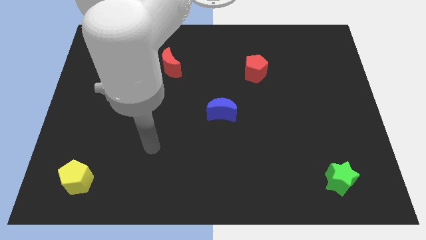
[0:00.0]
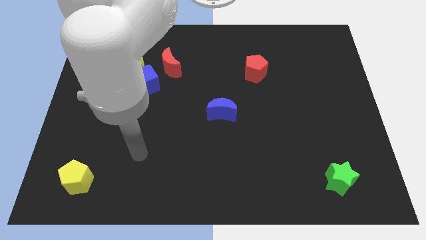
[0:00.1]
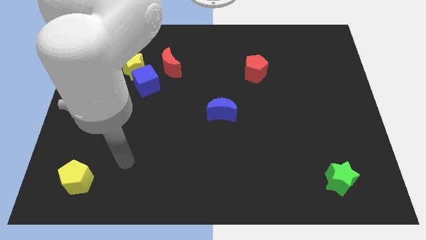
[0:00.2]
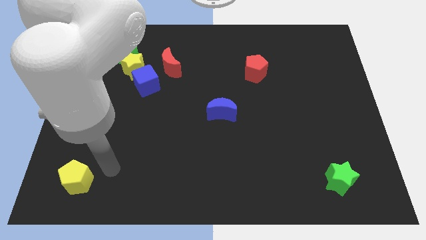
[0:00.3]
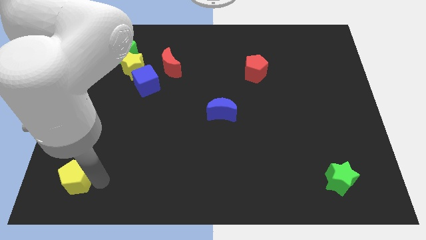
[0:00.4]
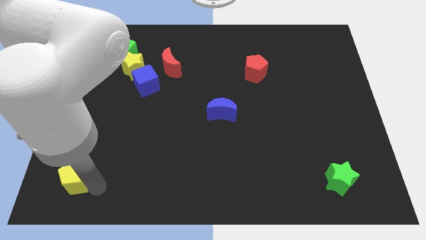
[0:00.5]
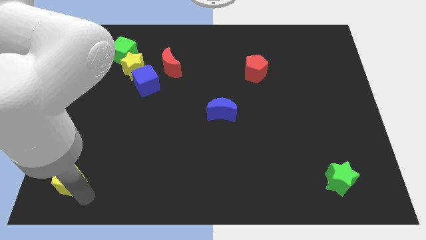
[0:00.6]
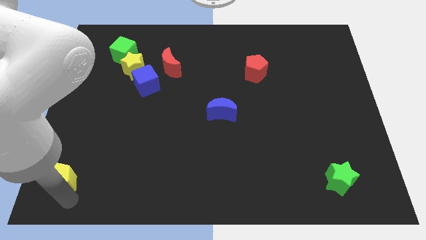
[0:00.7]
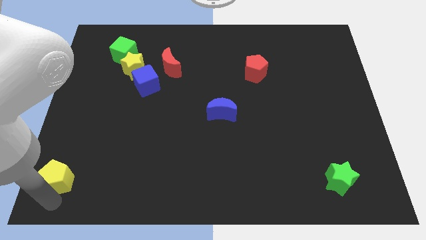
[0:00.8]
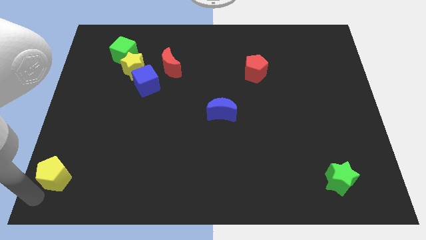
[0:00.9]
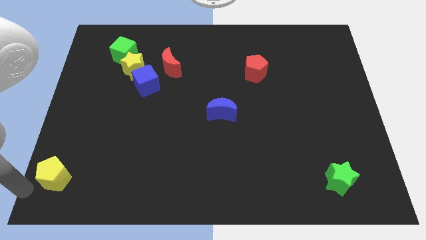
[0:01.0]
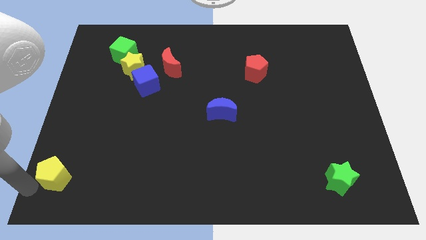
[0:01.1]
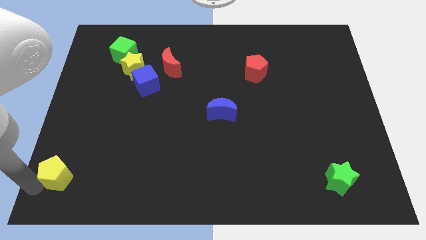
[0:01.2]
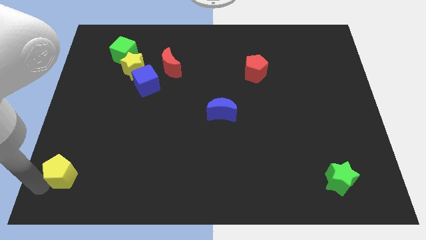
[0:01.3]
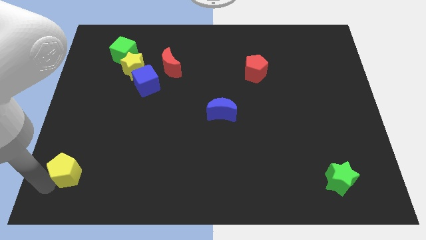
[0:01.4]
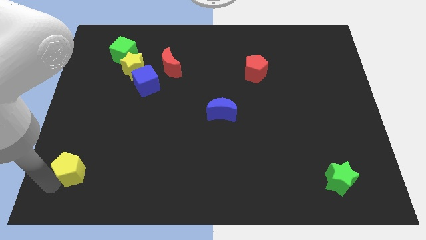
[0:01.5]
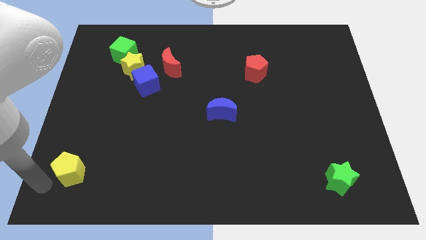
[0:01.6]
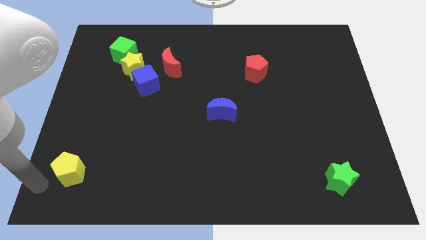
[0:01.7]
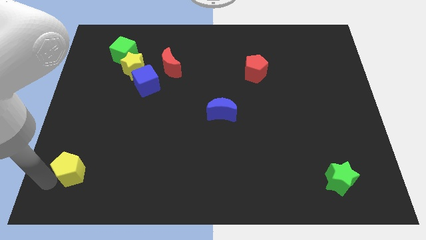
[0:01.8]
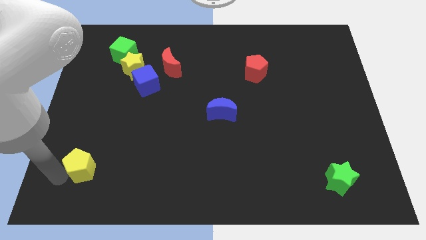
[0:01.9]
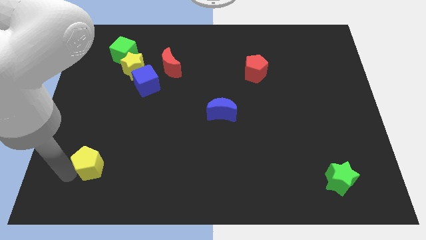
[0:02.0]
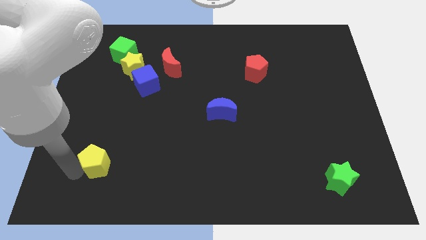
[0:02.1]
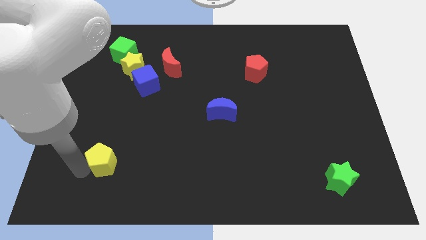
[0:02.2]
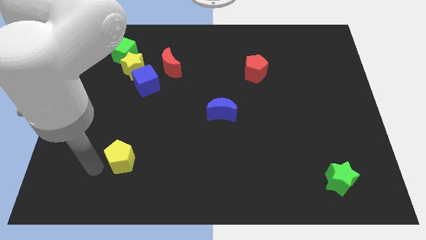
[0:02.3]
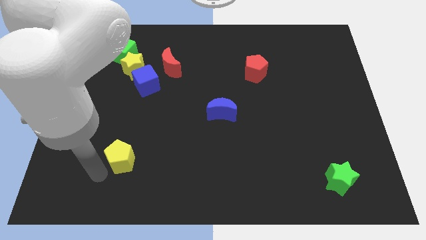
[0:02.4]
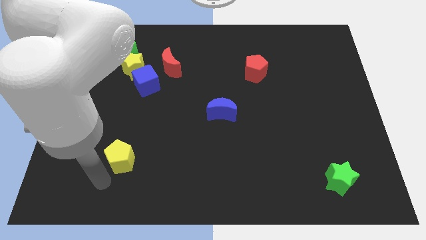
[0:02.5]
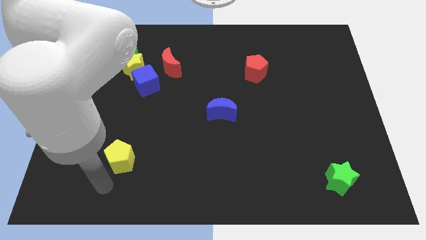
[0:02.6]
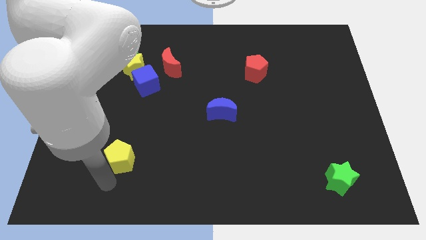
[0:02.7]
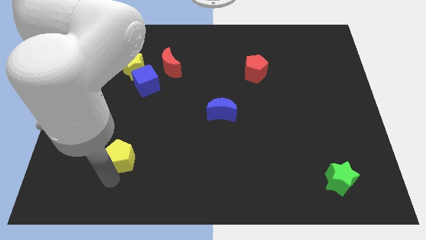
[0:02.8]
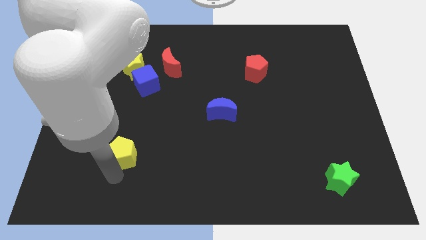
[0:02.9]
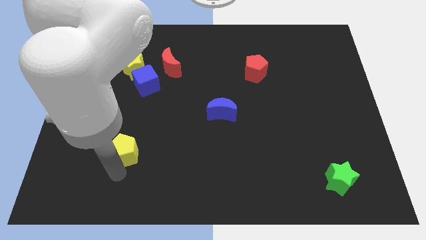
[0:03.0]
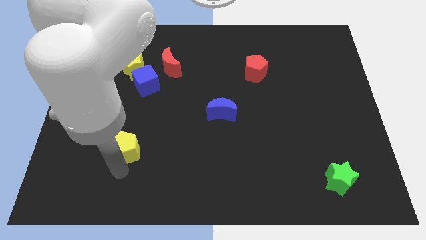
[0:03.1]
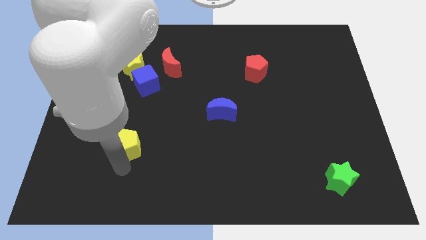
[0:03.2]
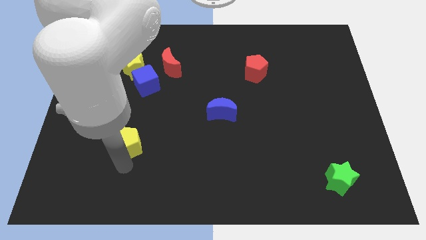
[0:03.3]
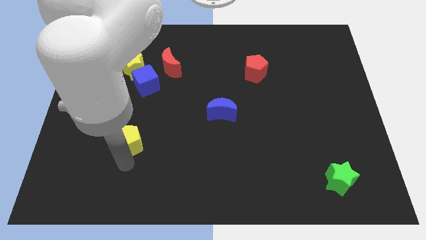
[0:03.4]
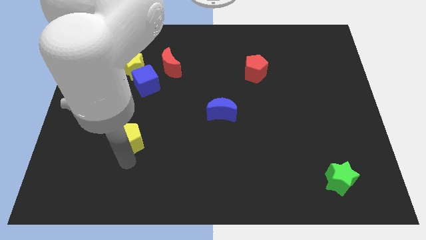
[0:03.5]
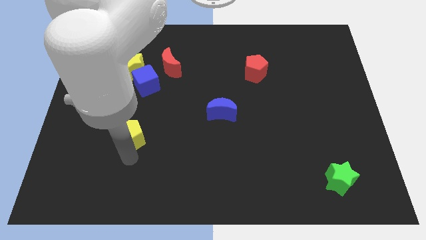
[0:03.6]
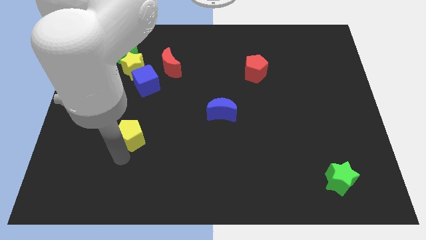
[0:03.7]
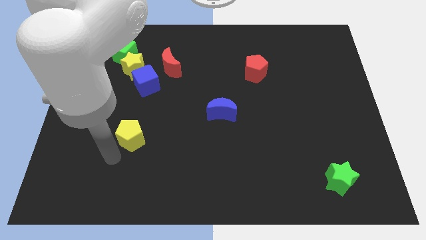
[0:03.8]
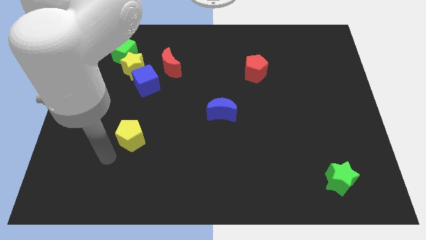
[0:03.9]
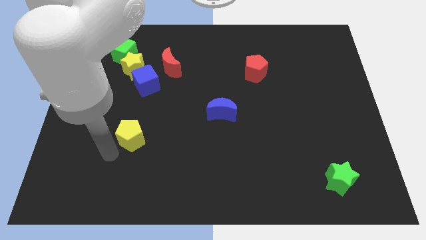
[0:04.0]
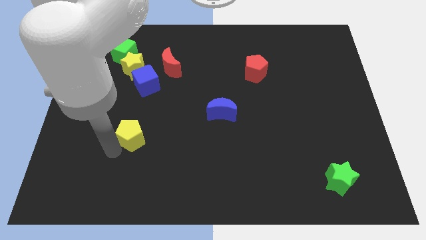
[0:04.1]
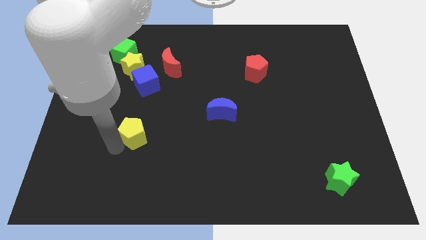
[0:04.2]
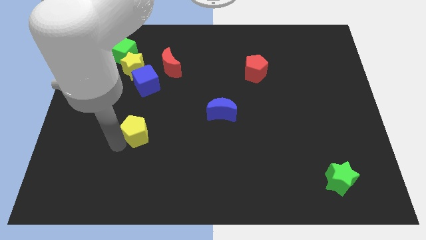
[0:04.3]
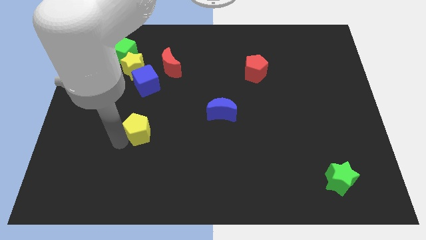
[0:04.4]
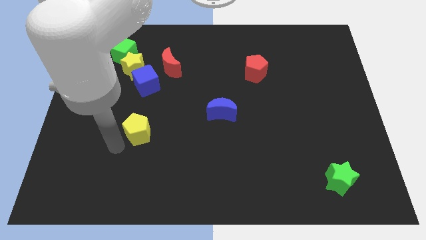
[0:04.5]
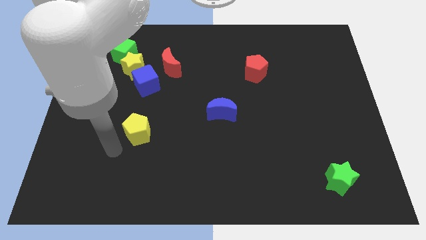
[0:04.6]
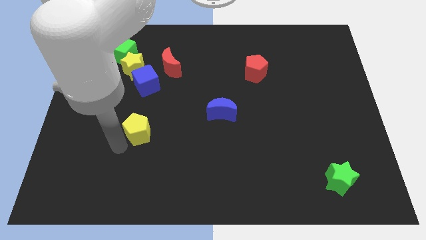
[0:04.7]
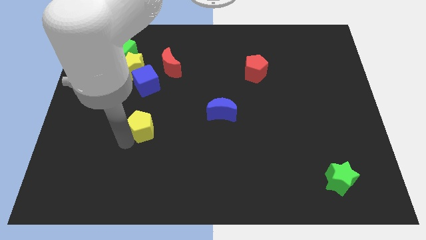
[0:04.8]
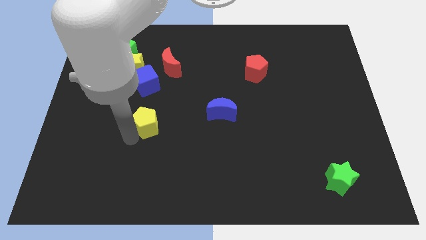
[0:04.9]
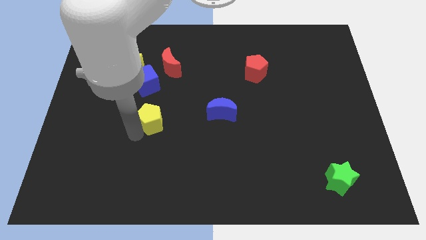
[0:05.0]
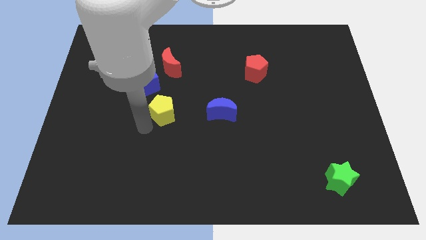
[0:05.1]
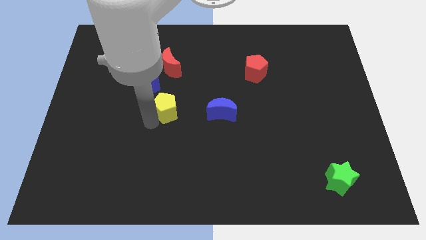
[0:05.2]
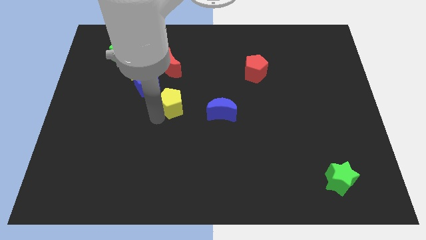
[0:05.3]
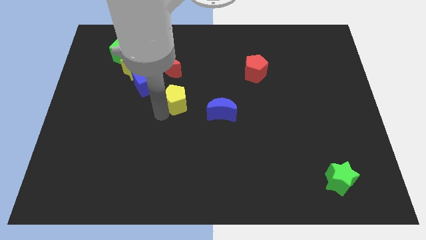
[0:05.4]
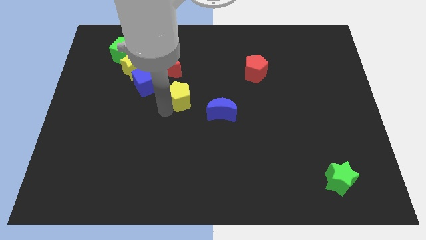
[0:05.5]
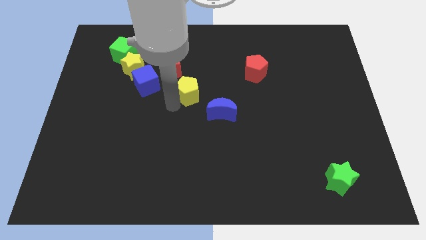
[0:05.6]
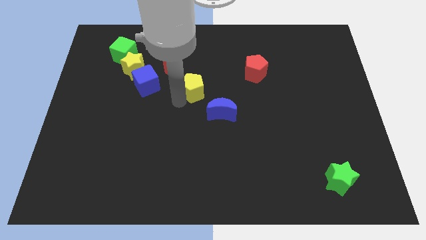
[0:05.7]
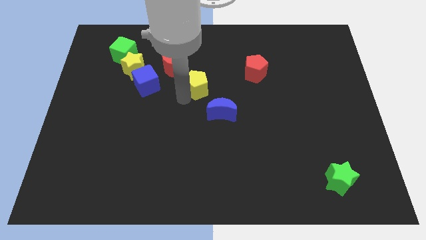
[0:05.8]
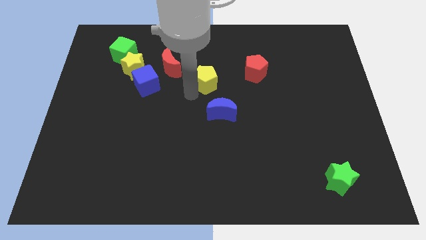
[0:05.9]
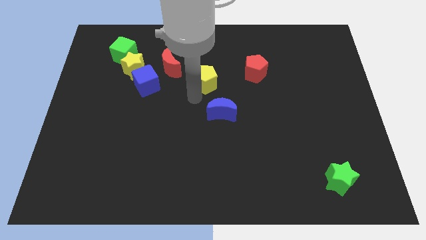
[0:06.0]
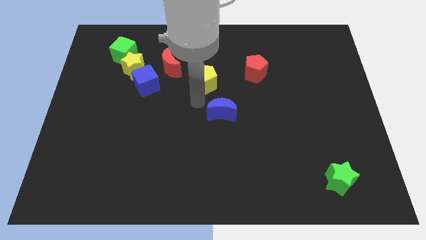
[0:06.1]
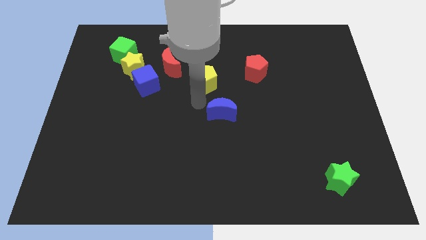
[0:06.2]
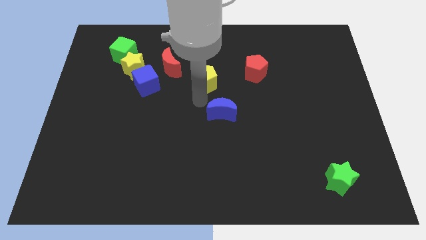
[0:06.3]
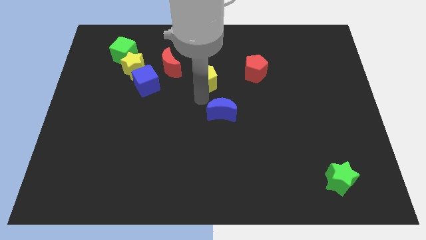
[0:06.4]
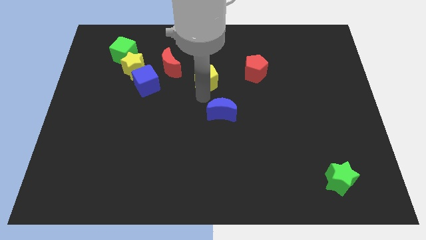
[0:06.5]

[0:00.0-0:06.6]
push the yellow pentagon to the right side of the red moon

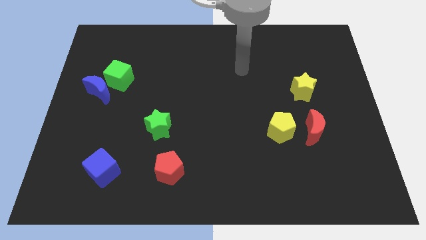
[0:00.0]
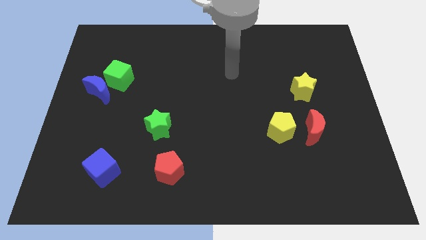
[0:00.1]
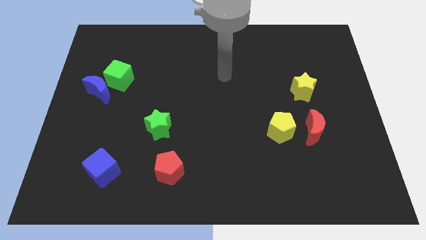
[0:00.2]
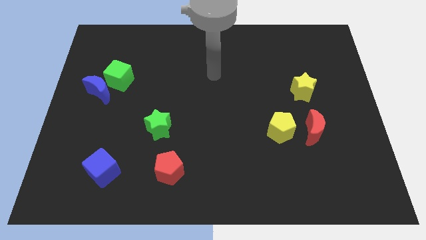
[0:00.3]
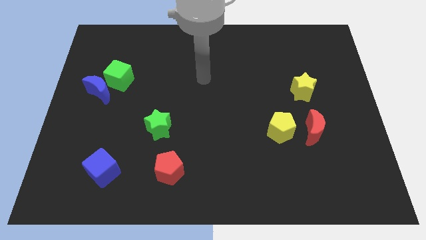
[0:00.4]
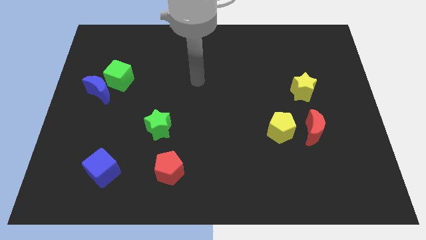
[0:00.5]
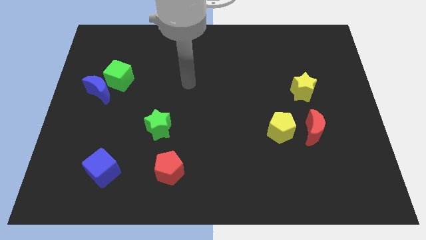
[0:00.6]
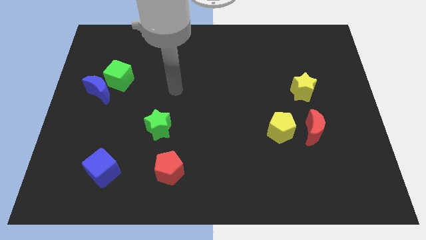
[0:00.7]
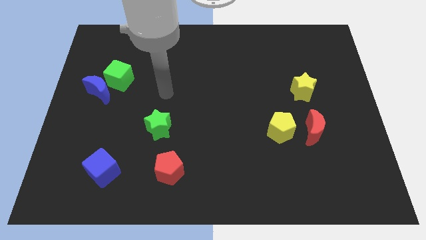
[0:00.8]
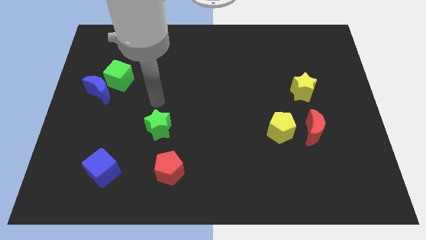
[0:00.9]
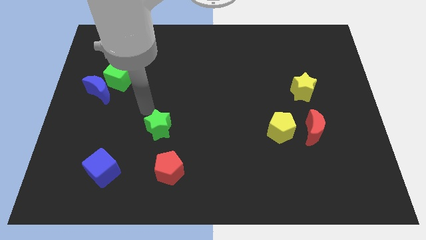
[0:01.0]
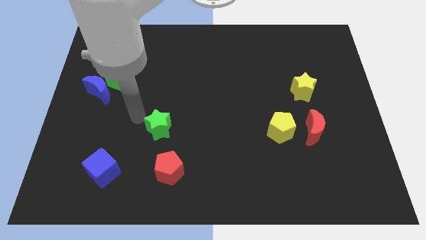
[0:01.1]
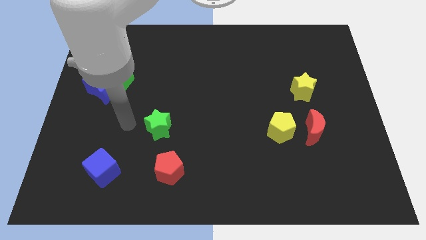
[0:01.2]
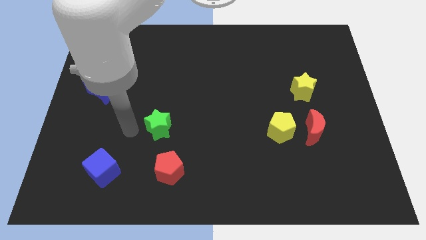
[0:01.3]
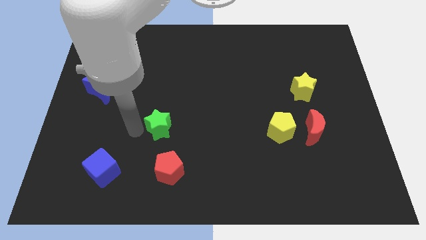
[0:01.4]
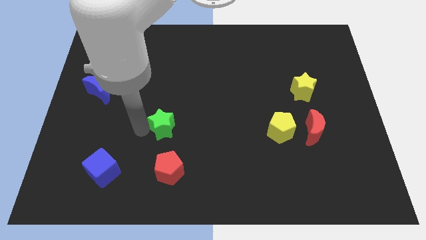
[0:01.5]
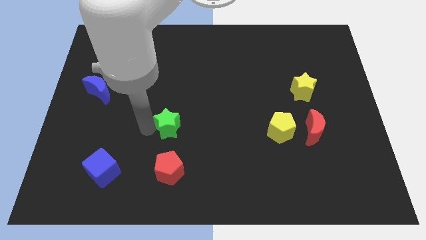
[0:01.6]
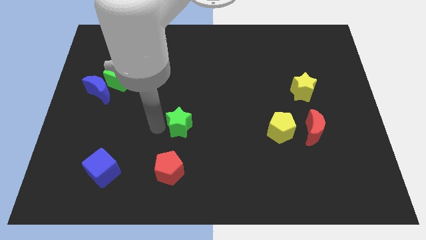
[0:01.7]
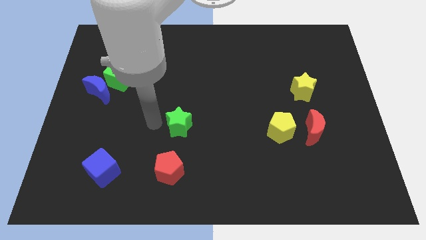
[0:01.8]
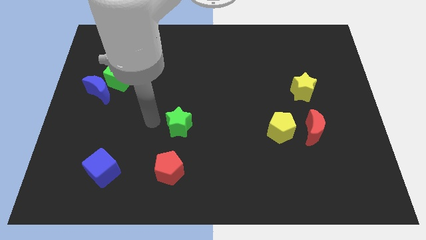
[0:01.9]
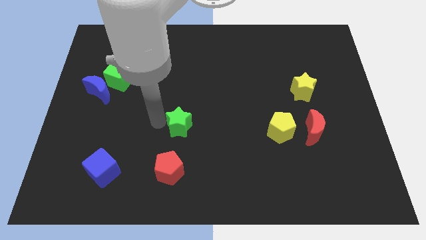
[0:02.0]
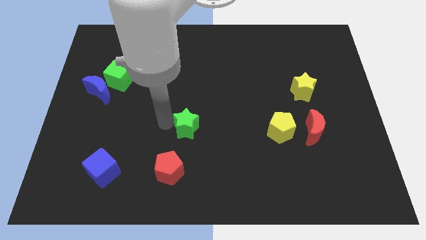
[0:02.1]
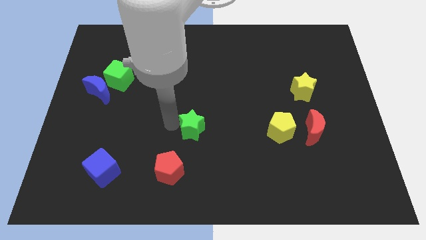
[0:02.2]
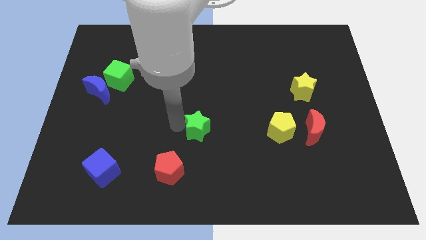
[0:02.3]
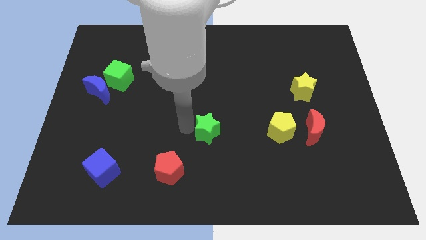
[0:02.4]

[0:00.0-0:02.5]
push the green star to the left side of the yellow pentagon
